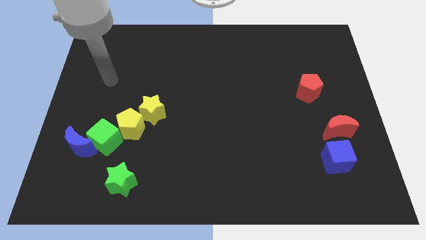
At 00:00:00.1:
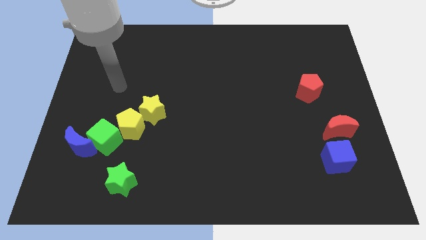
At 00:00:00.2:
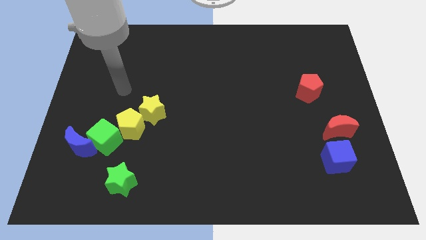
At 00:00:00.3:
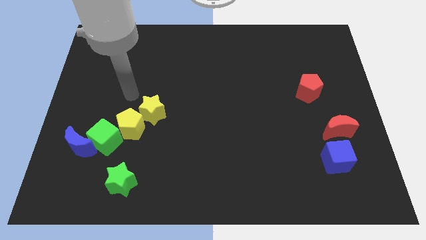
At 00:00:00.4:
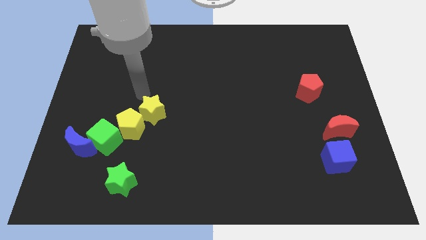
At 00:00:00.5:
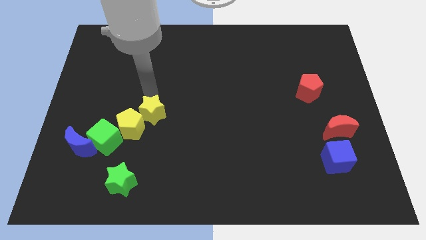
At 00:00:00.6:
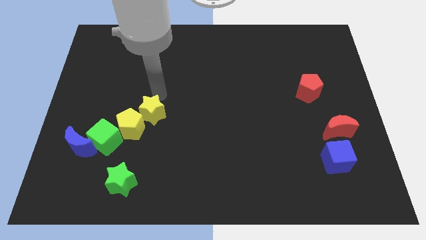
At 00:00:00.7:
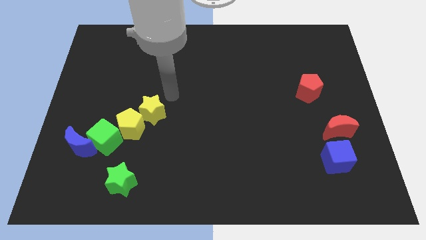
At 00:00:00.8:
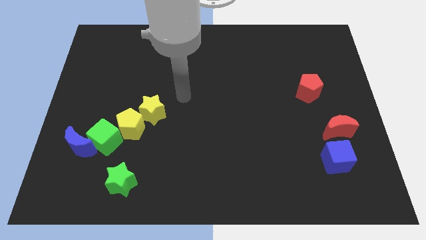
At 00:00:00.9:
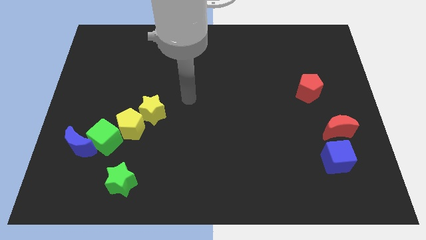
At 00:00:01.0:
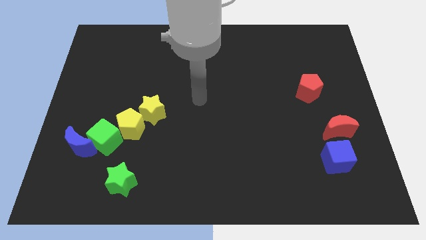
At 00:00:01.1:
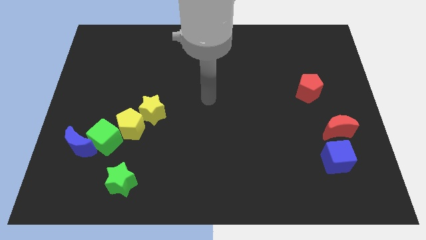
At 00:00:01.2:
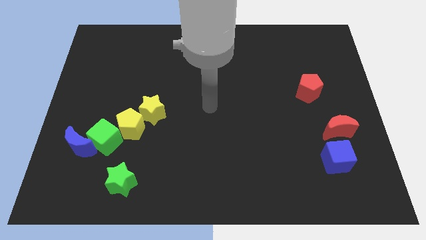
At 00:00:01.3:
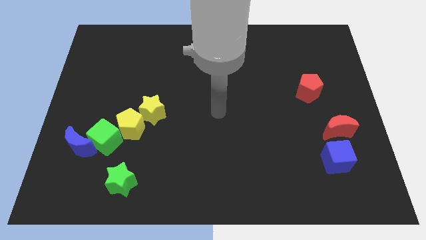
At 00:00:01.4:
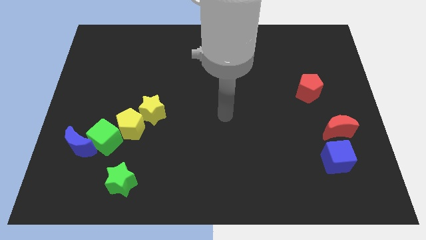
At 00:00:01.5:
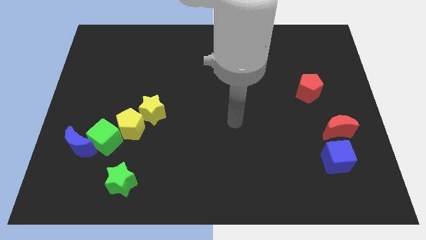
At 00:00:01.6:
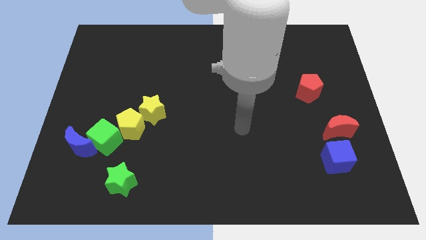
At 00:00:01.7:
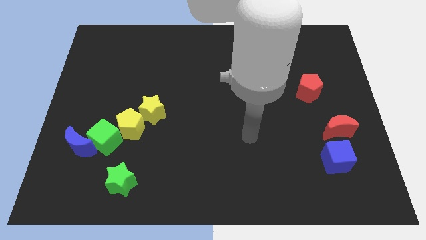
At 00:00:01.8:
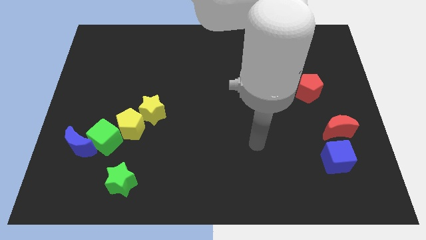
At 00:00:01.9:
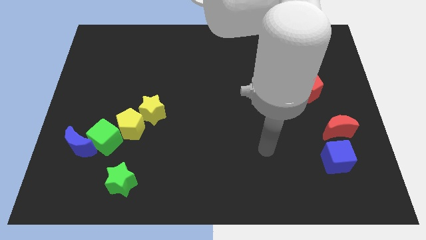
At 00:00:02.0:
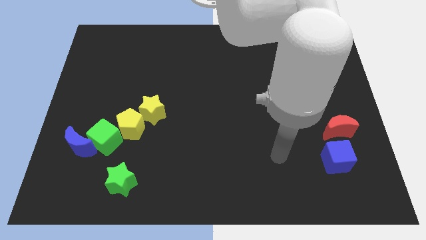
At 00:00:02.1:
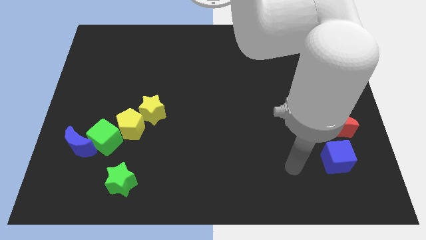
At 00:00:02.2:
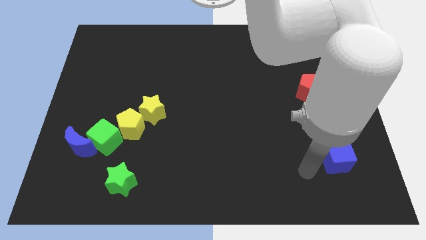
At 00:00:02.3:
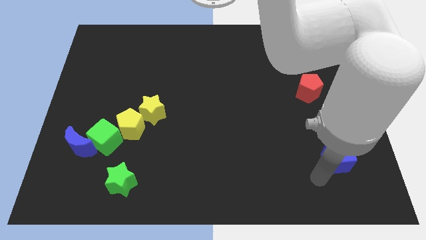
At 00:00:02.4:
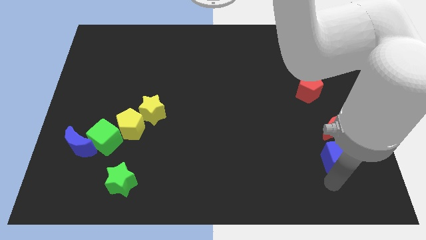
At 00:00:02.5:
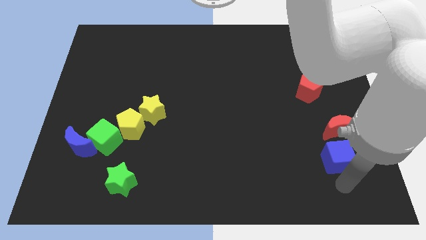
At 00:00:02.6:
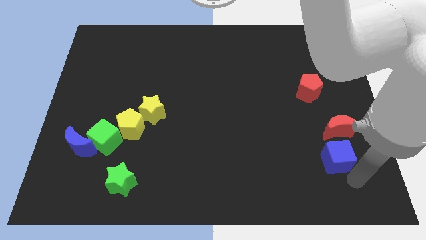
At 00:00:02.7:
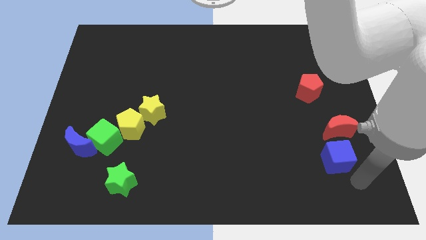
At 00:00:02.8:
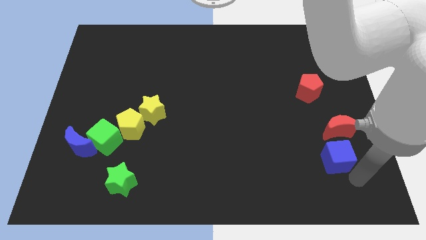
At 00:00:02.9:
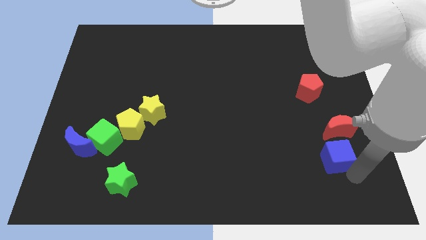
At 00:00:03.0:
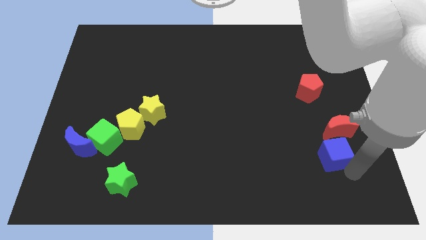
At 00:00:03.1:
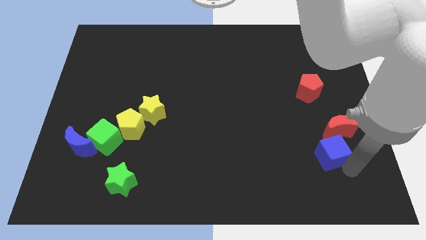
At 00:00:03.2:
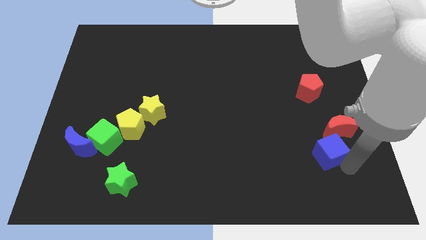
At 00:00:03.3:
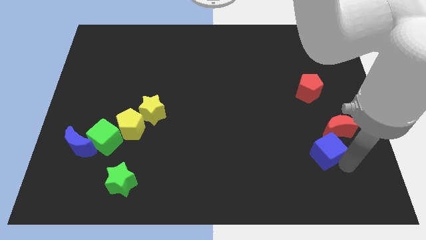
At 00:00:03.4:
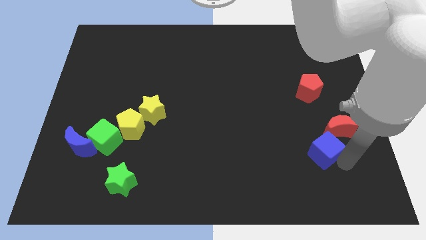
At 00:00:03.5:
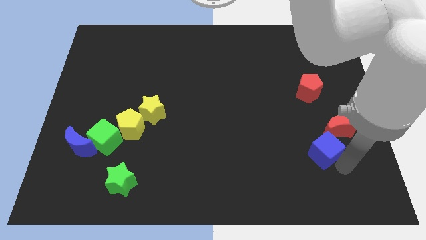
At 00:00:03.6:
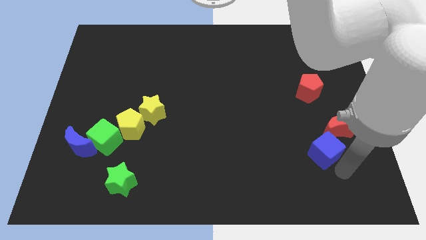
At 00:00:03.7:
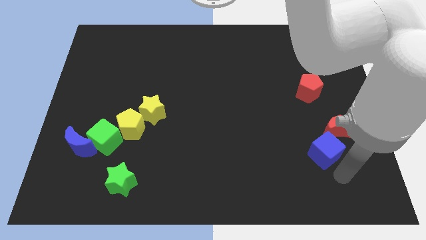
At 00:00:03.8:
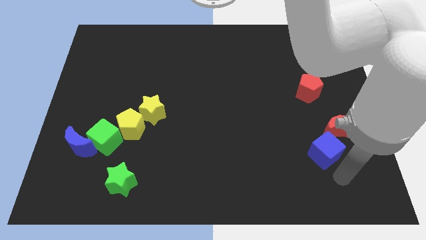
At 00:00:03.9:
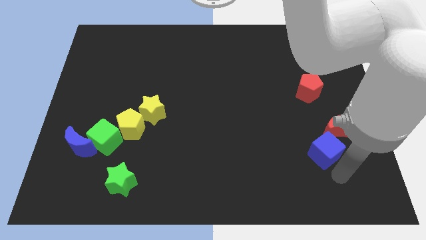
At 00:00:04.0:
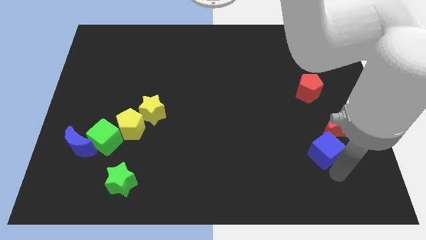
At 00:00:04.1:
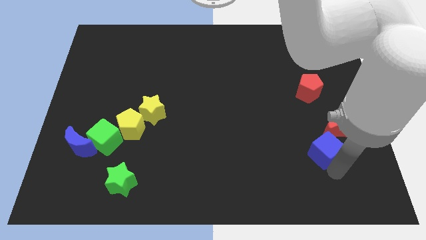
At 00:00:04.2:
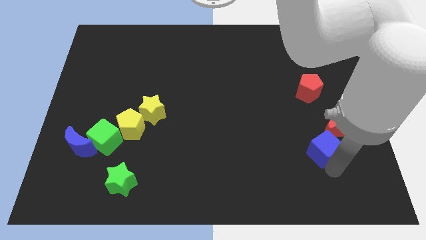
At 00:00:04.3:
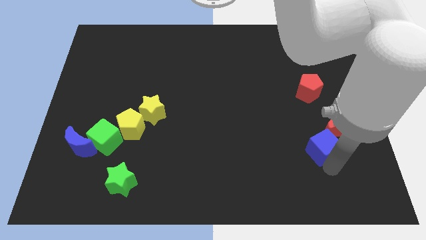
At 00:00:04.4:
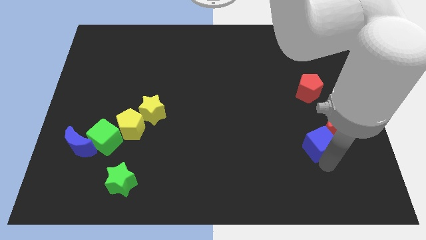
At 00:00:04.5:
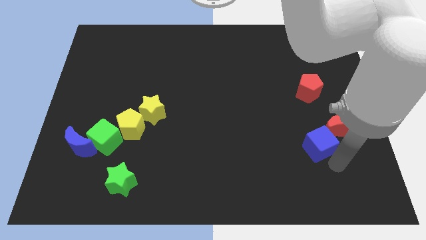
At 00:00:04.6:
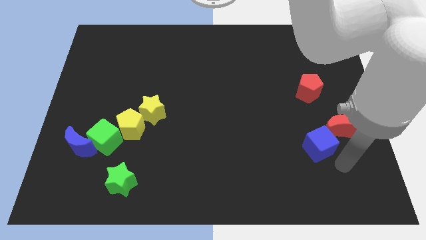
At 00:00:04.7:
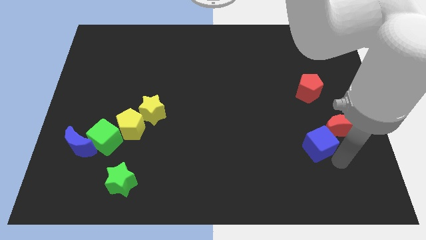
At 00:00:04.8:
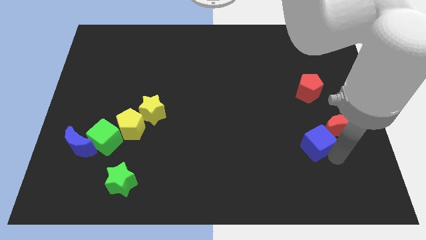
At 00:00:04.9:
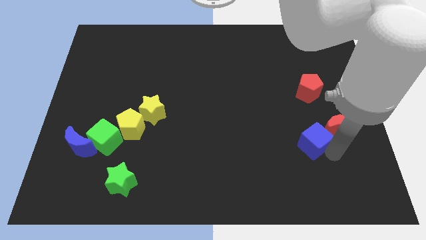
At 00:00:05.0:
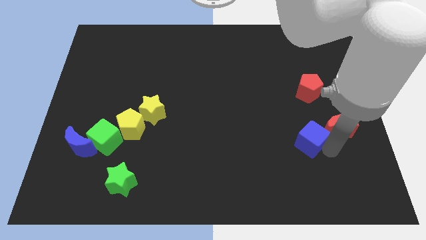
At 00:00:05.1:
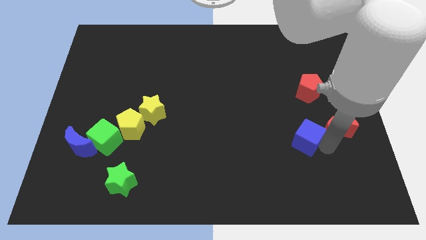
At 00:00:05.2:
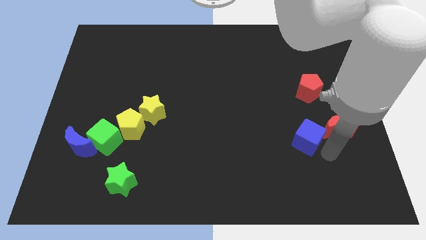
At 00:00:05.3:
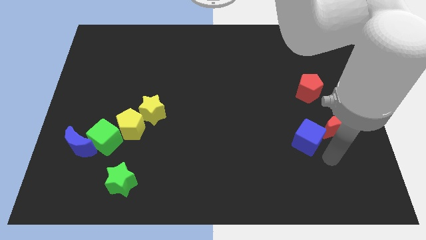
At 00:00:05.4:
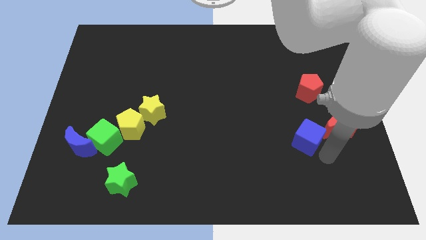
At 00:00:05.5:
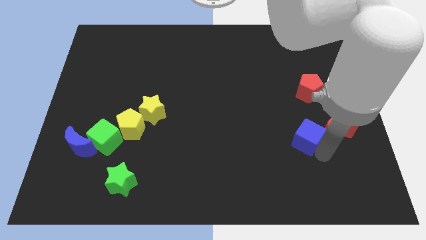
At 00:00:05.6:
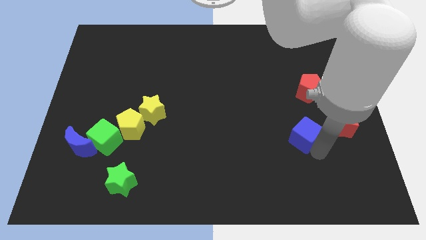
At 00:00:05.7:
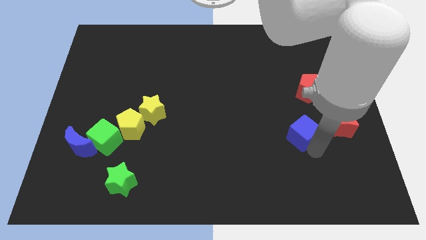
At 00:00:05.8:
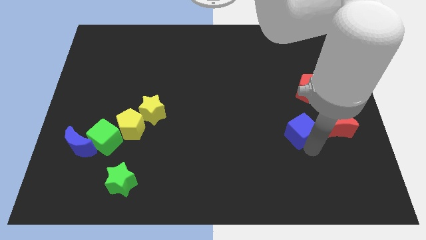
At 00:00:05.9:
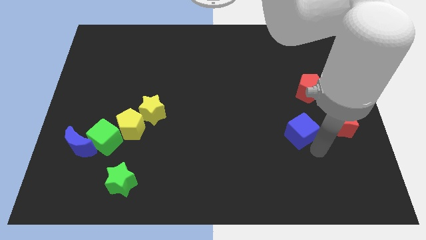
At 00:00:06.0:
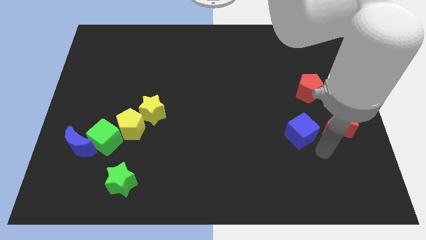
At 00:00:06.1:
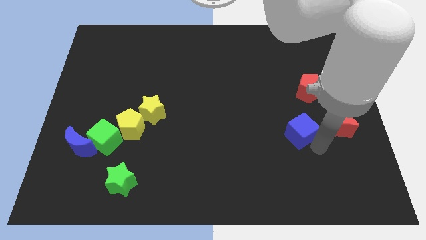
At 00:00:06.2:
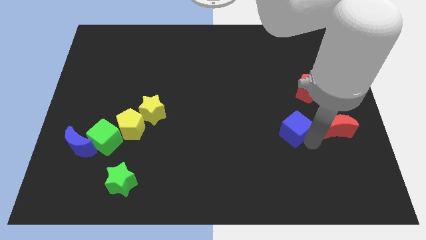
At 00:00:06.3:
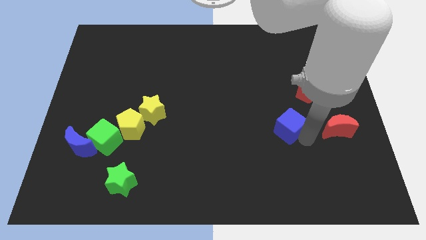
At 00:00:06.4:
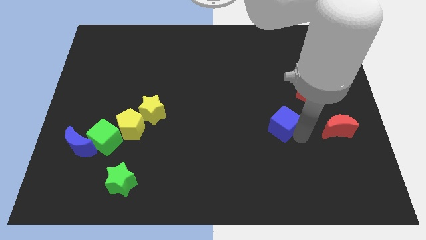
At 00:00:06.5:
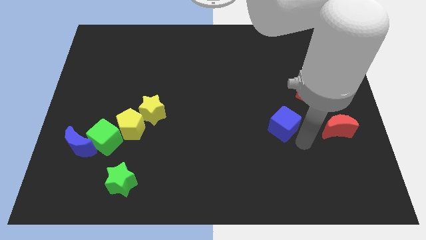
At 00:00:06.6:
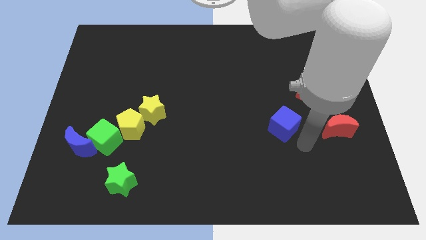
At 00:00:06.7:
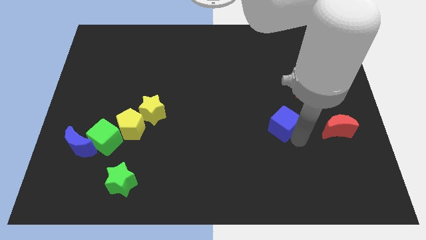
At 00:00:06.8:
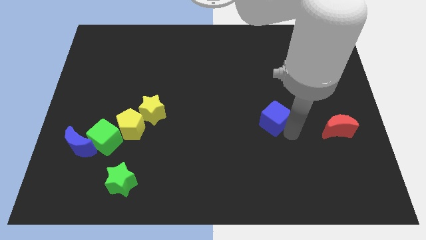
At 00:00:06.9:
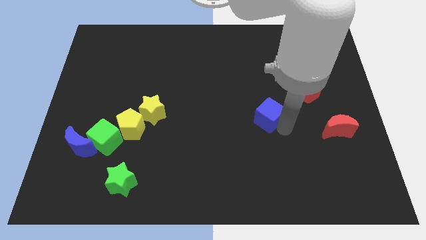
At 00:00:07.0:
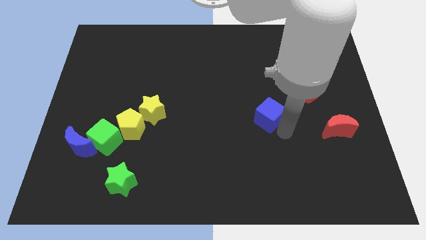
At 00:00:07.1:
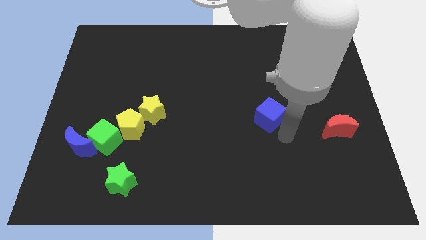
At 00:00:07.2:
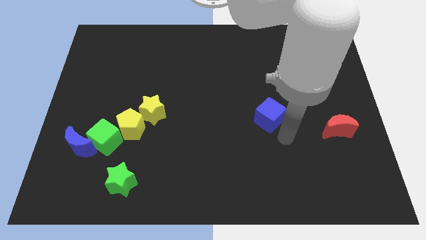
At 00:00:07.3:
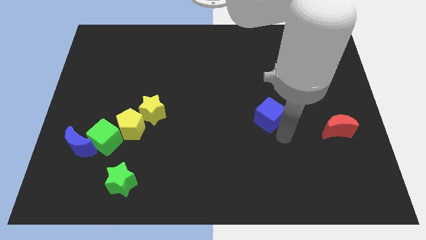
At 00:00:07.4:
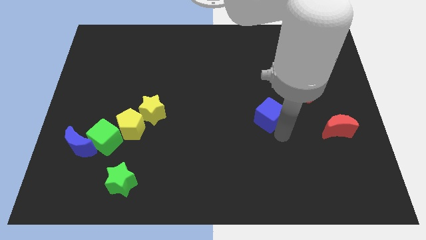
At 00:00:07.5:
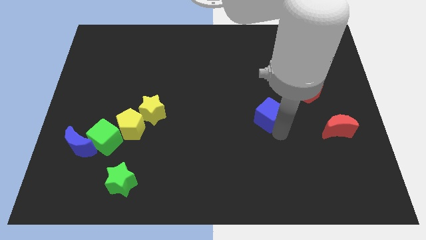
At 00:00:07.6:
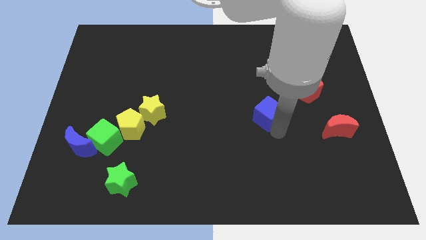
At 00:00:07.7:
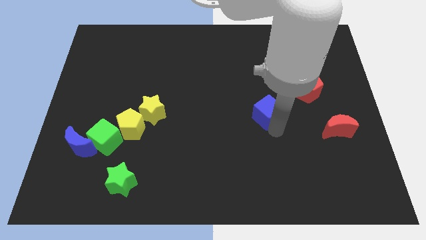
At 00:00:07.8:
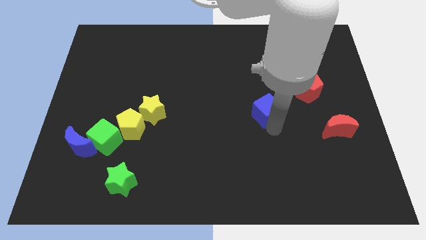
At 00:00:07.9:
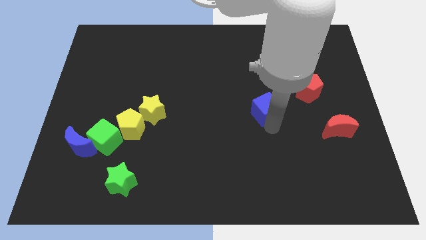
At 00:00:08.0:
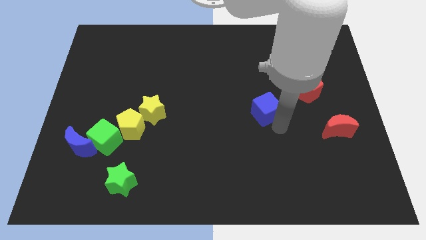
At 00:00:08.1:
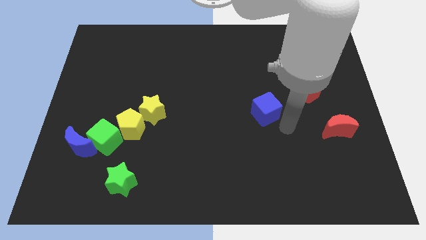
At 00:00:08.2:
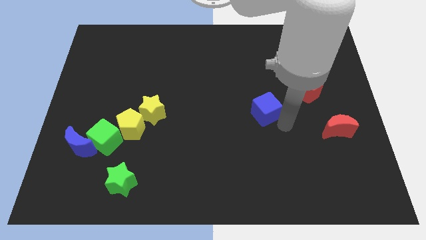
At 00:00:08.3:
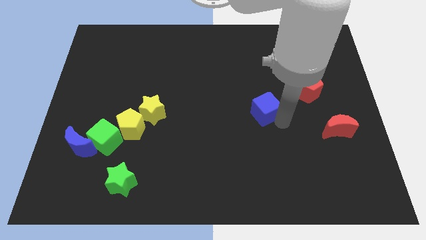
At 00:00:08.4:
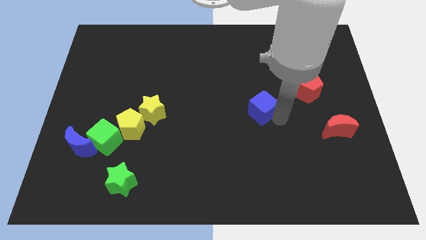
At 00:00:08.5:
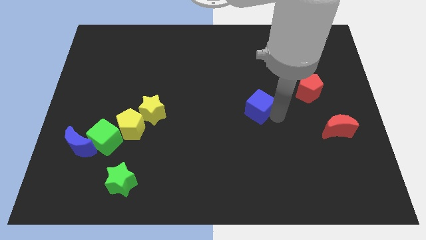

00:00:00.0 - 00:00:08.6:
push the blue cube diagonally up and to the left
